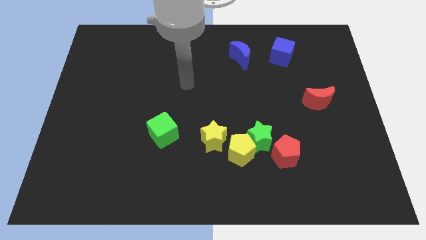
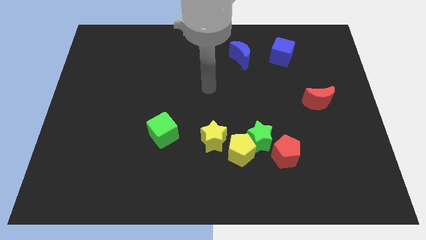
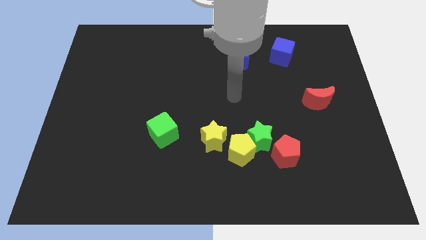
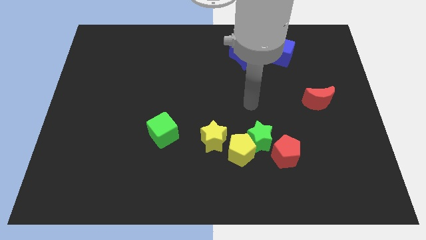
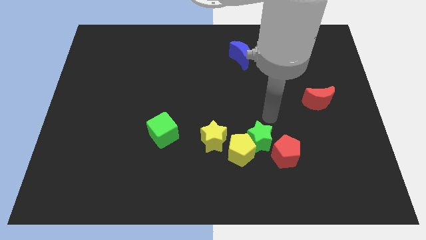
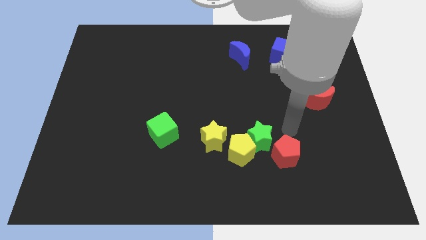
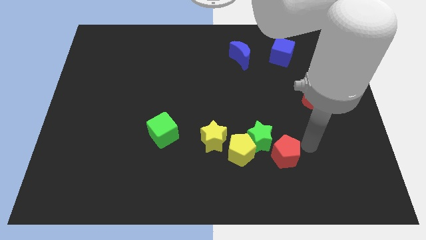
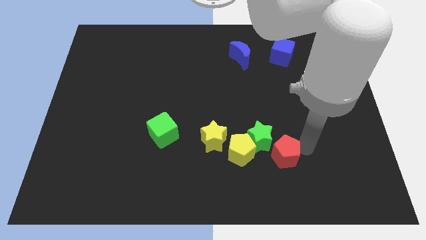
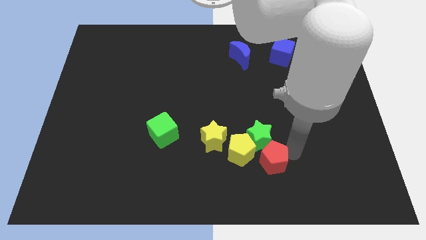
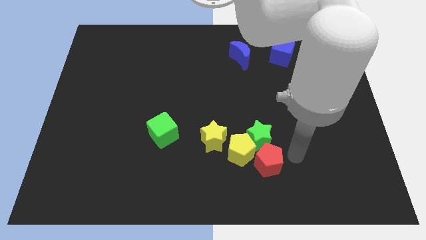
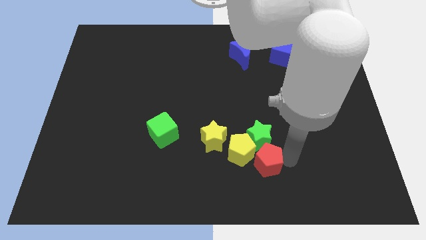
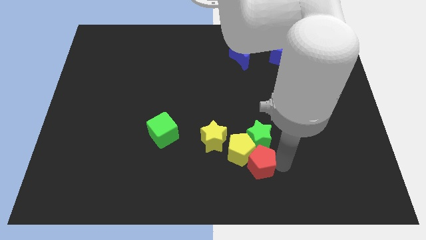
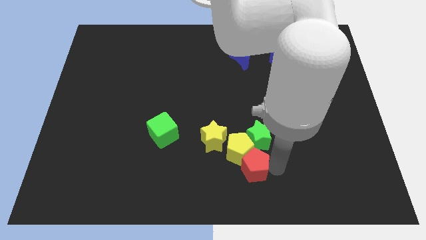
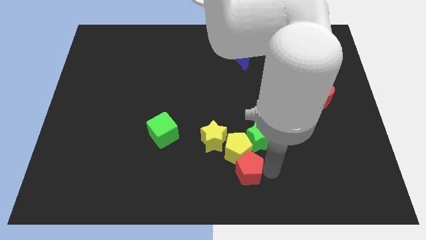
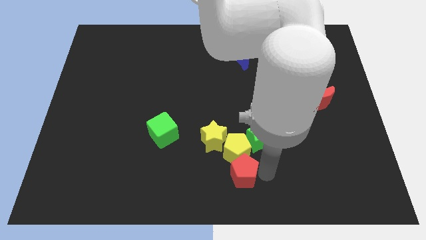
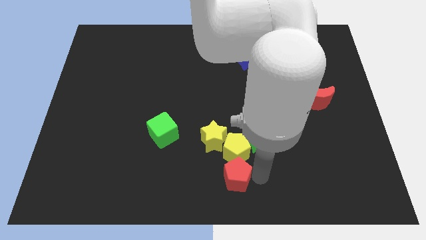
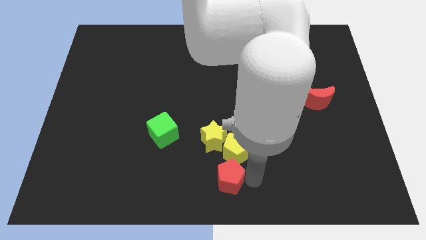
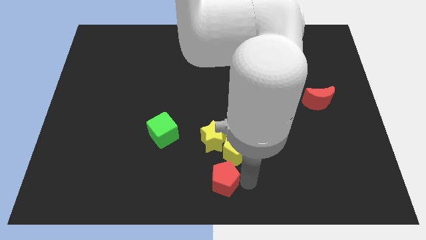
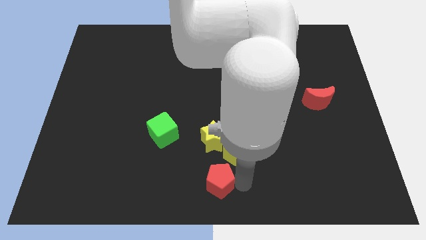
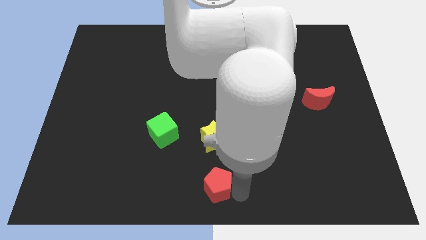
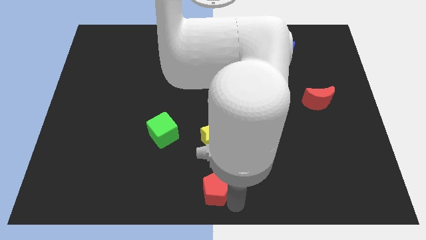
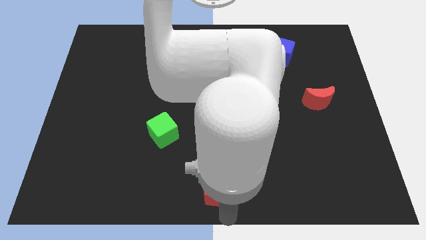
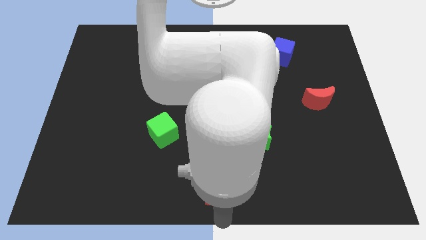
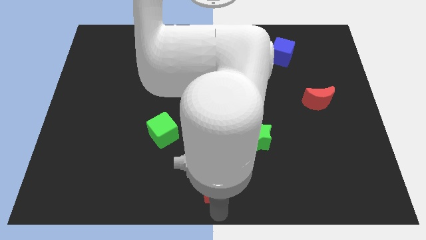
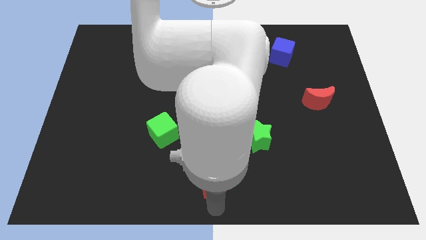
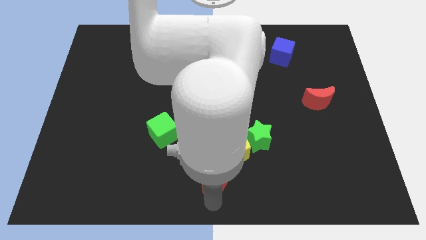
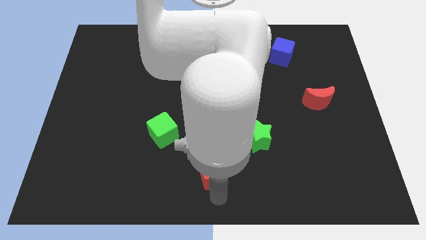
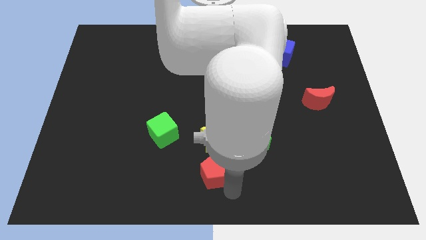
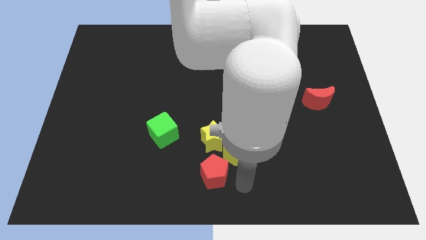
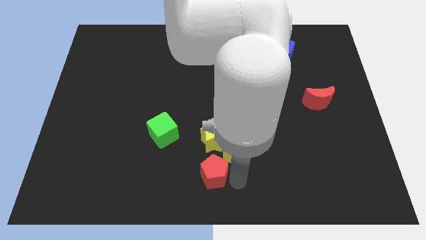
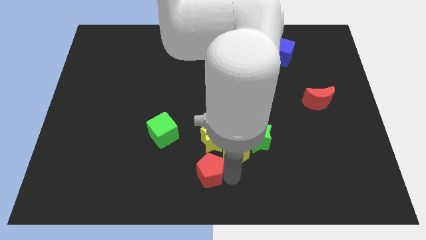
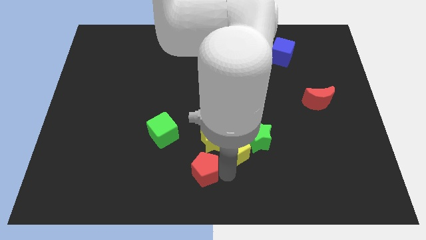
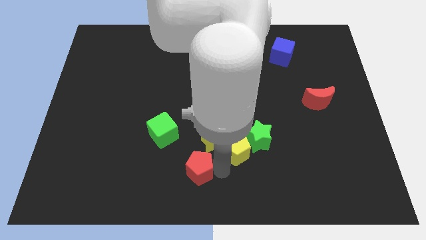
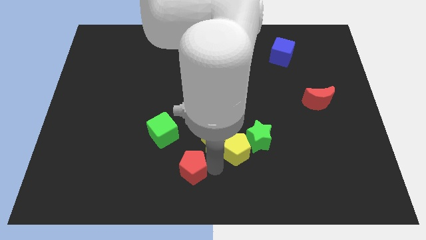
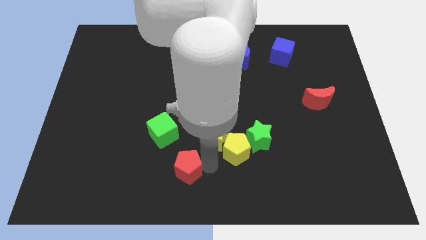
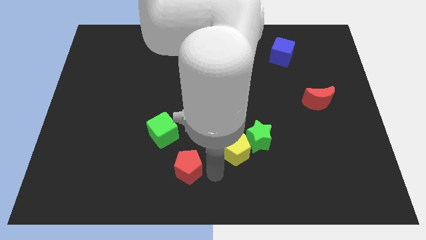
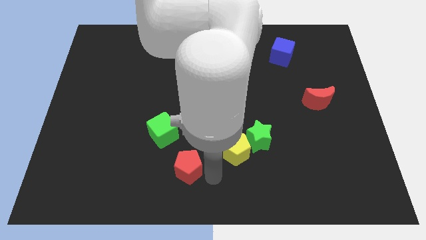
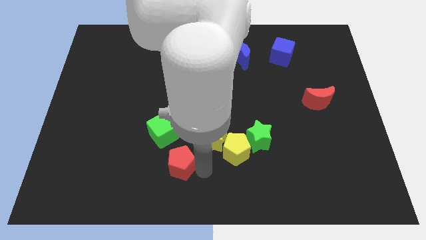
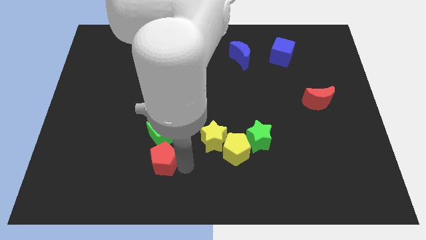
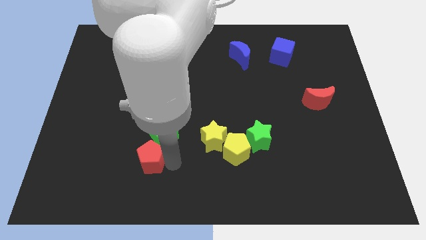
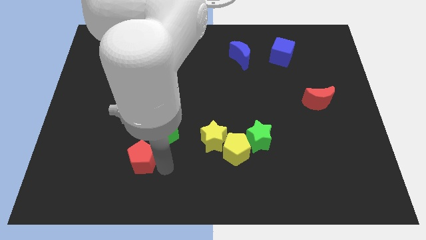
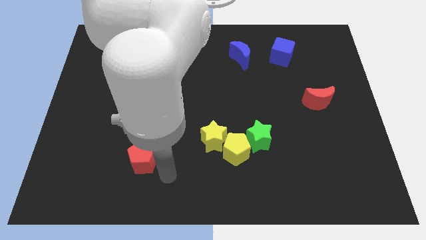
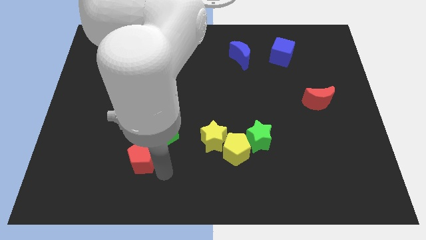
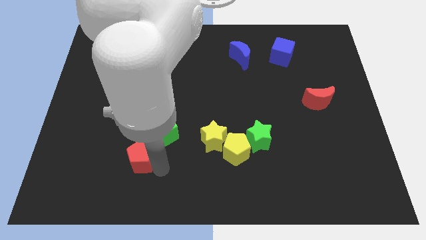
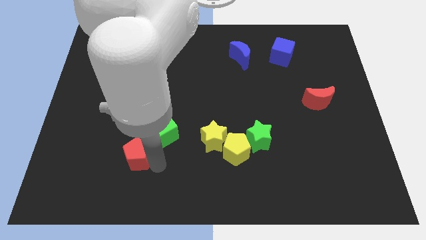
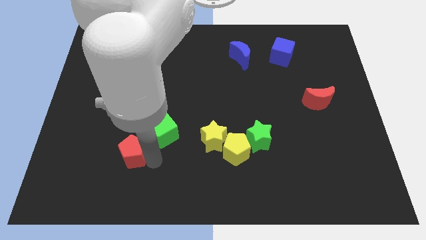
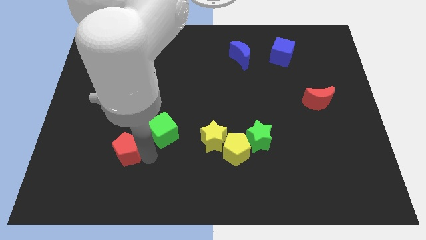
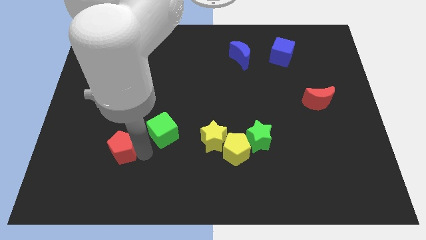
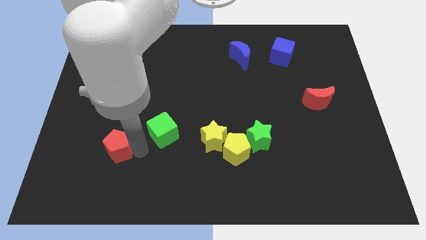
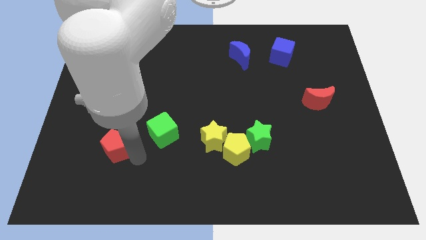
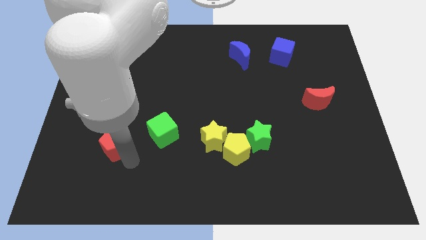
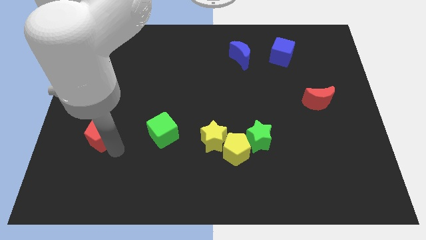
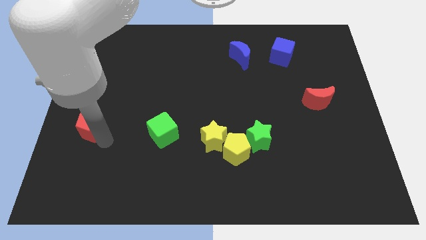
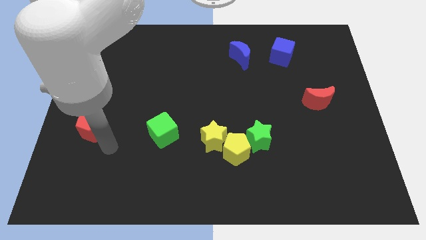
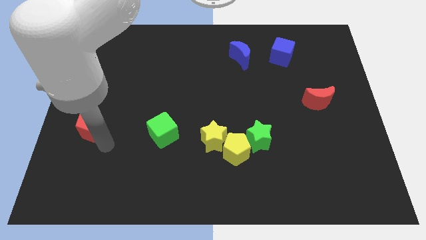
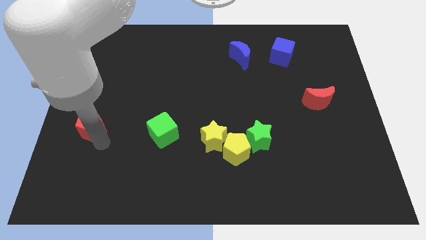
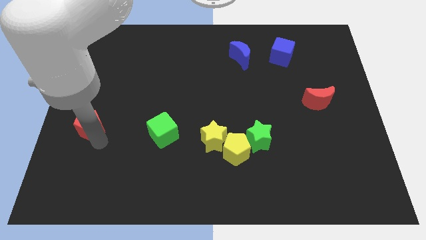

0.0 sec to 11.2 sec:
slide the red pentagon to the left side

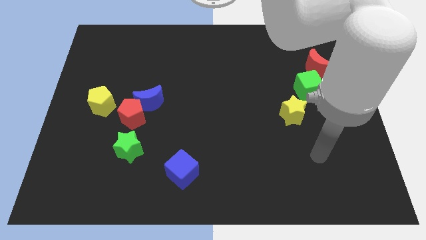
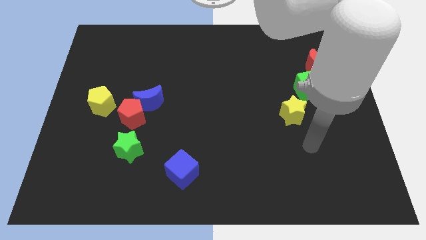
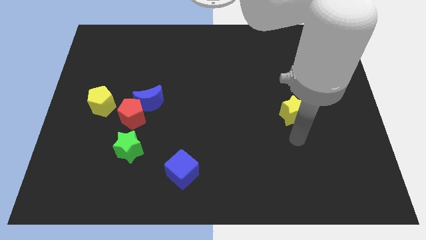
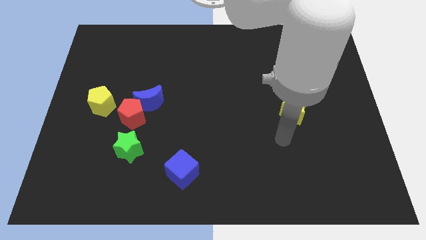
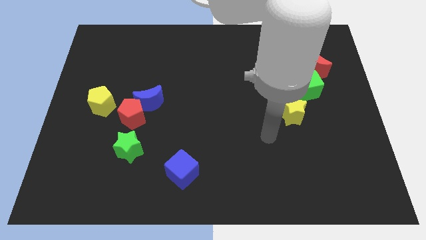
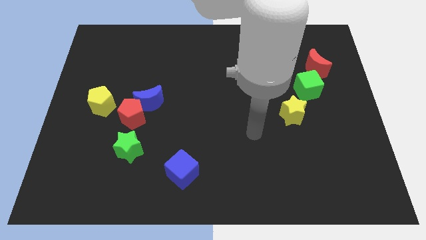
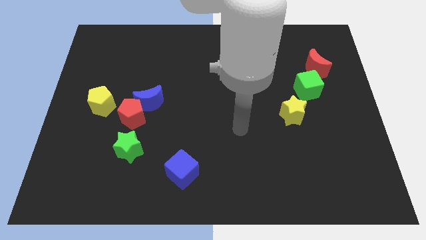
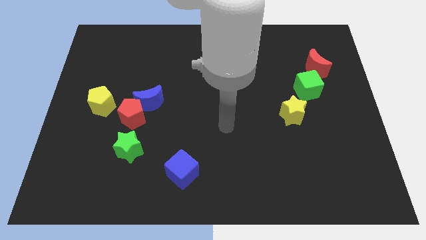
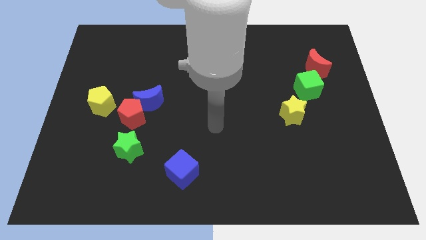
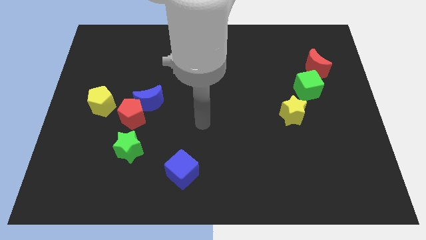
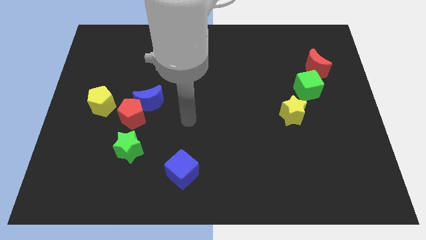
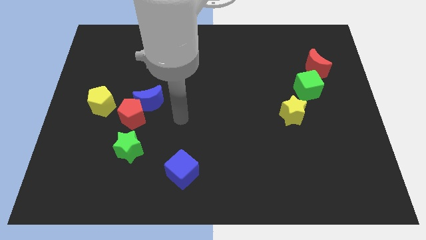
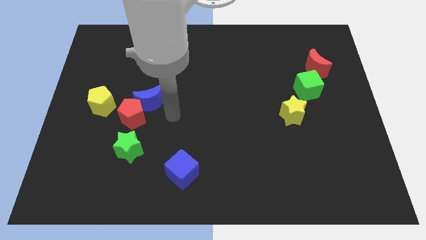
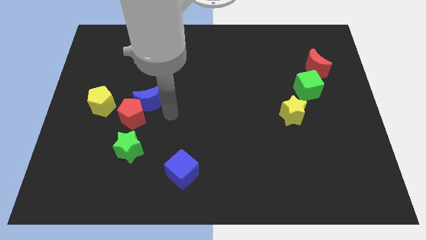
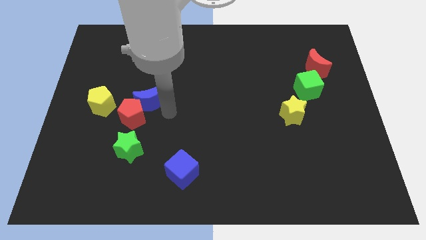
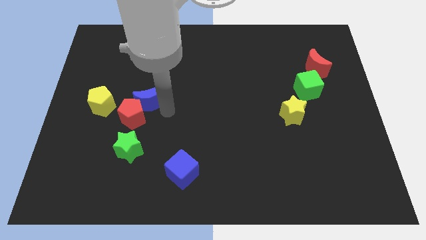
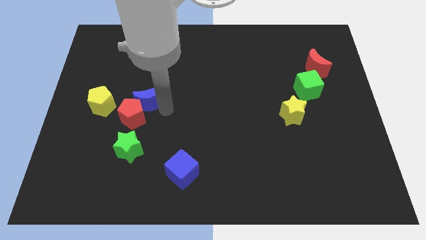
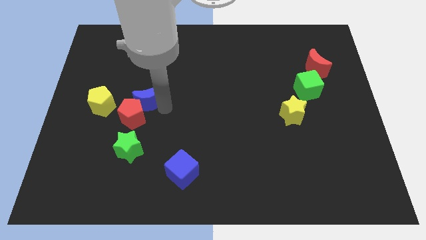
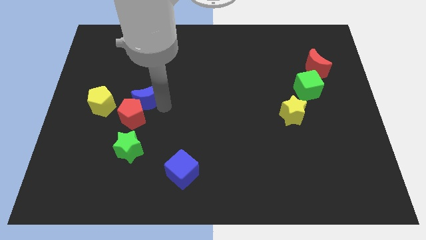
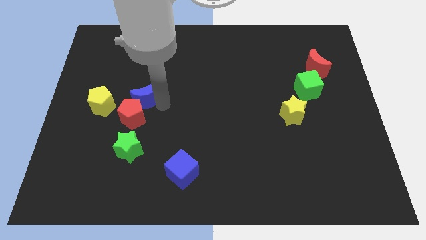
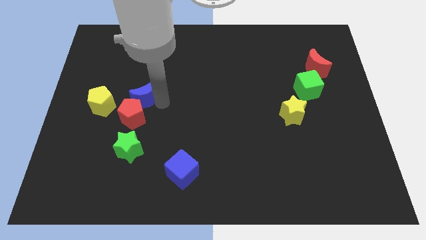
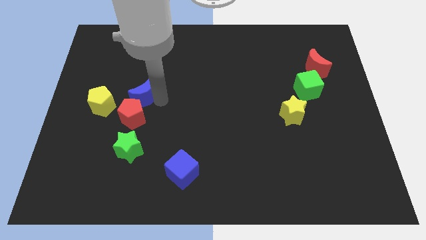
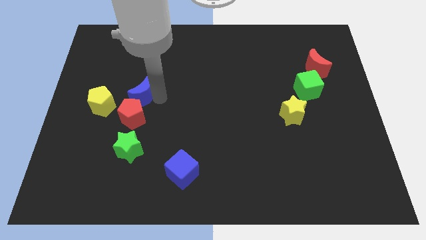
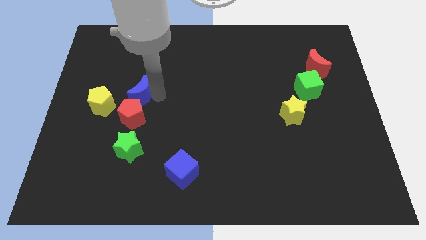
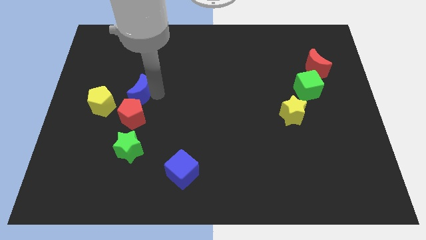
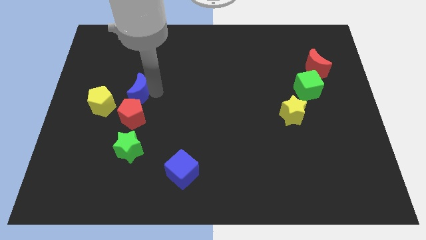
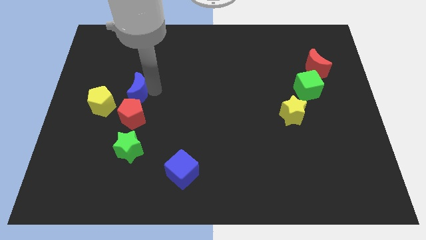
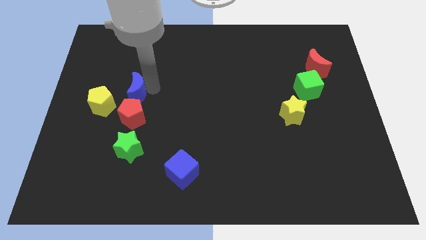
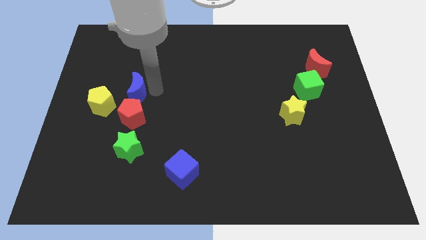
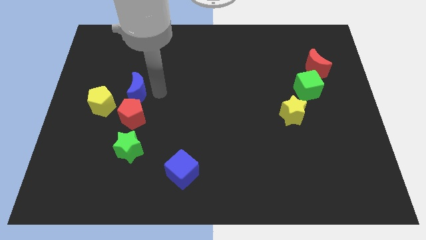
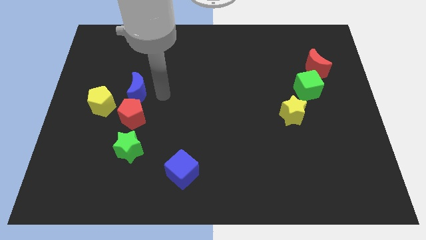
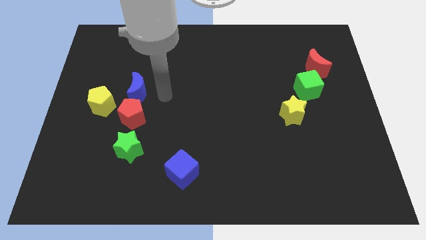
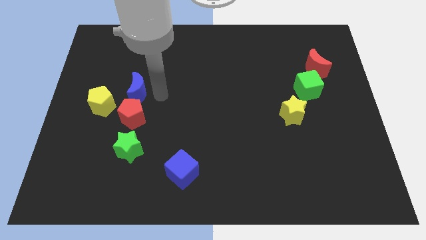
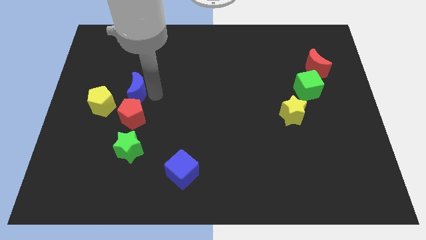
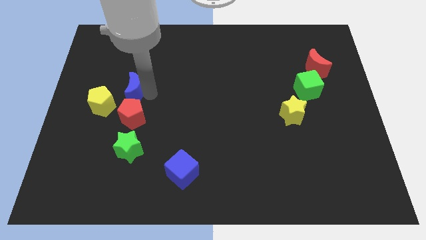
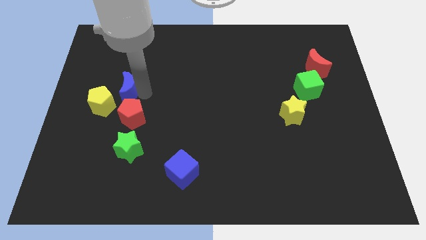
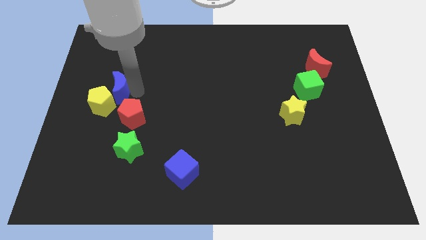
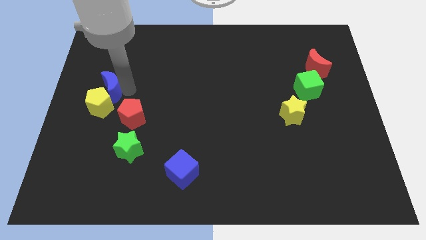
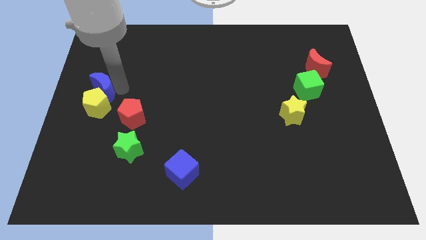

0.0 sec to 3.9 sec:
move the blue moon to the left side of the board
